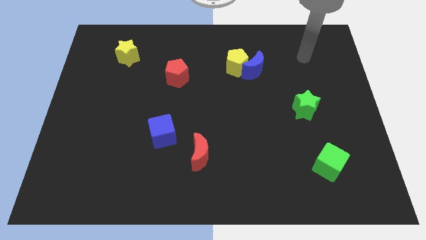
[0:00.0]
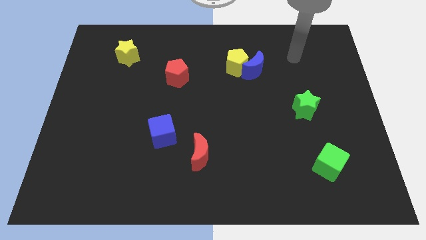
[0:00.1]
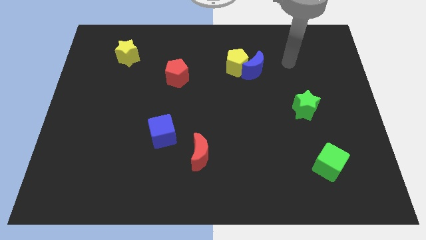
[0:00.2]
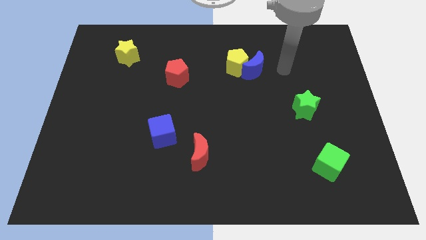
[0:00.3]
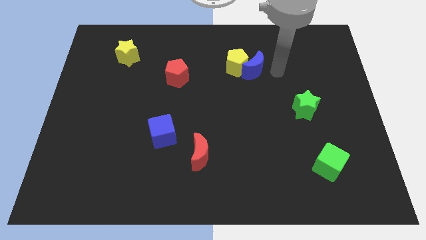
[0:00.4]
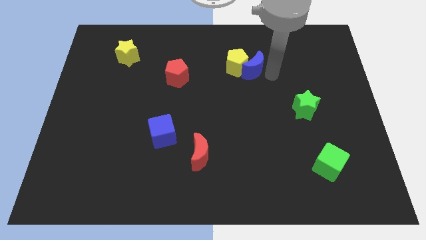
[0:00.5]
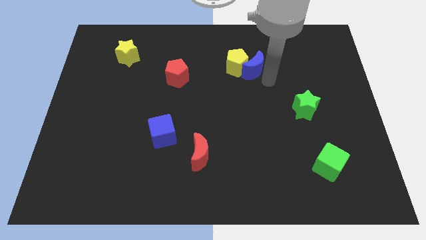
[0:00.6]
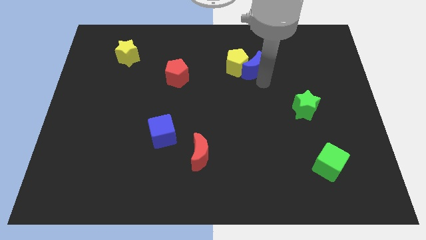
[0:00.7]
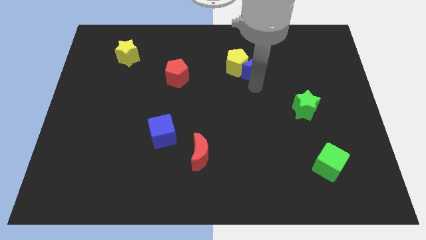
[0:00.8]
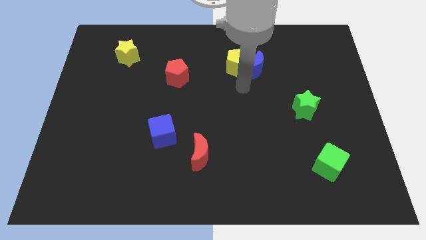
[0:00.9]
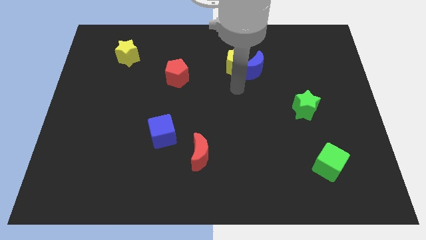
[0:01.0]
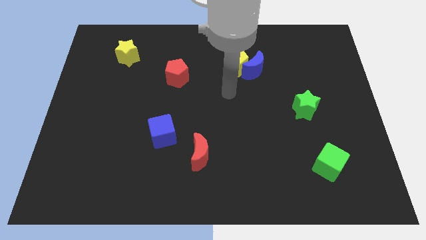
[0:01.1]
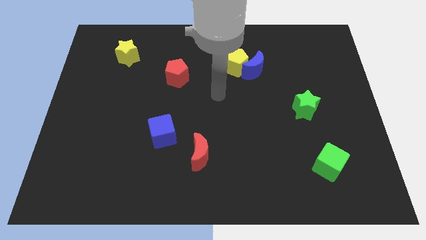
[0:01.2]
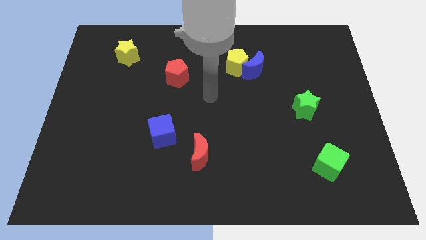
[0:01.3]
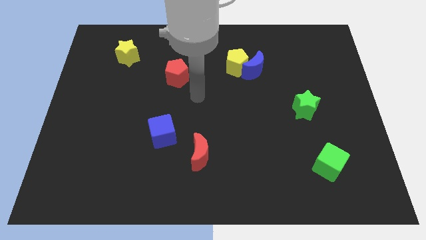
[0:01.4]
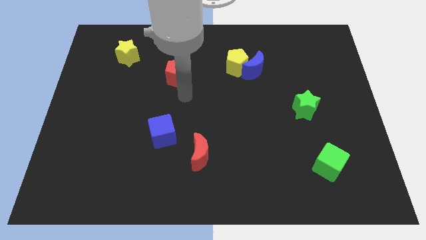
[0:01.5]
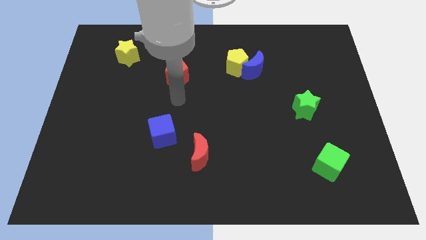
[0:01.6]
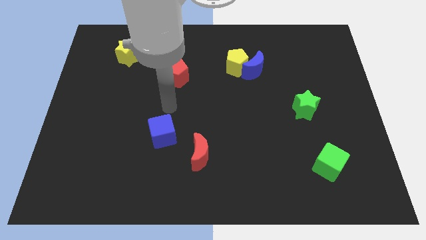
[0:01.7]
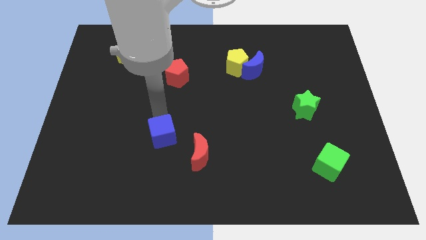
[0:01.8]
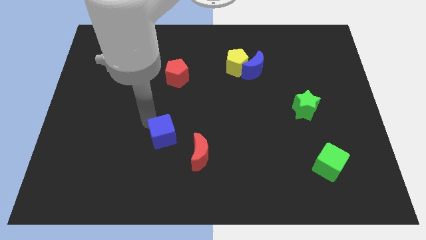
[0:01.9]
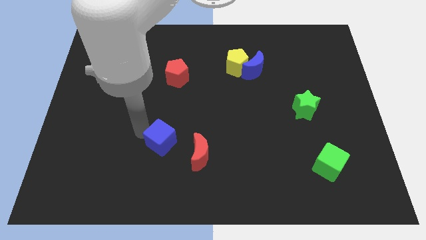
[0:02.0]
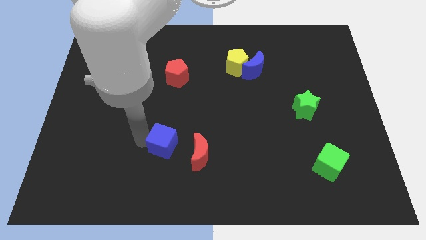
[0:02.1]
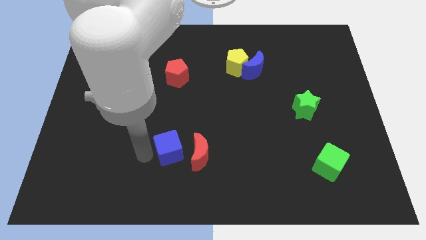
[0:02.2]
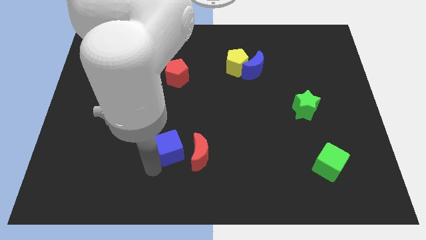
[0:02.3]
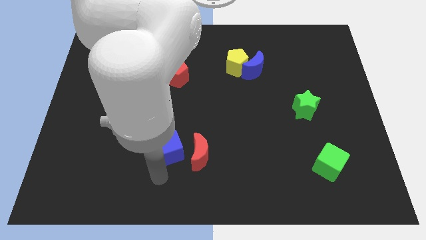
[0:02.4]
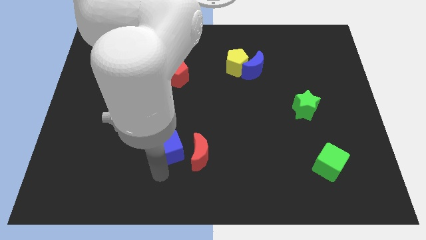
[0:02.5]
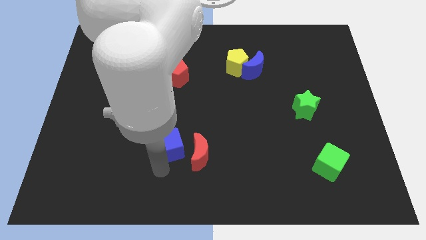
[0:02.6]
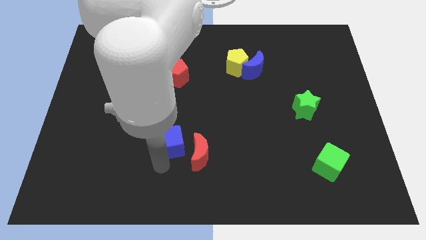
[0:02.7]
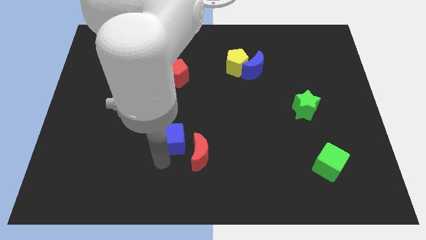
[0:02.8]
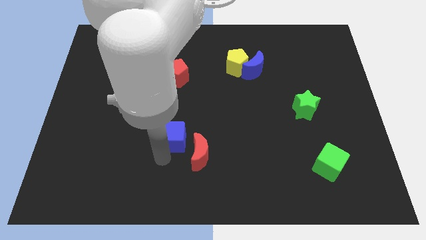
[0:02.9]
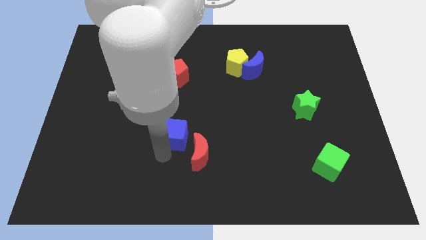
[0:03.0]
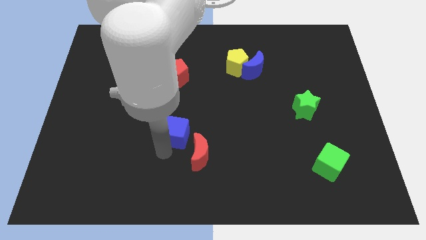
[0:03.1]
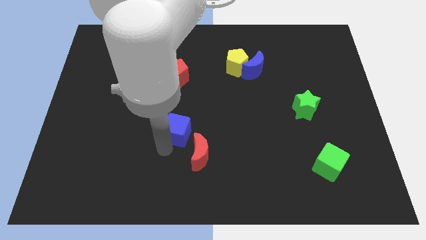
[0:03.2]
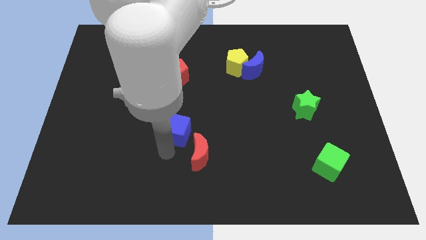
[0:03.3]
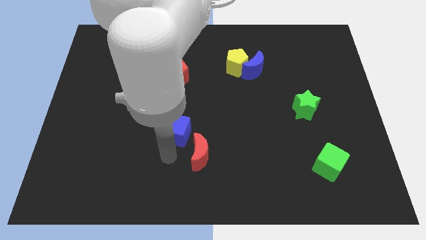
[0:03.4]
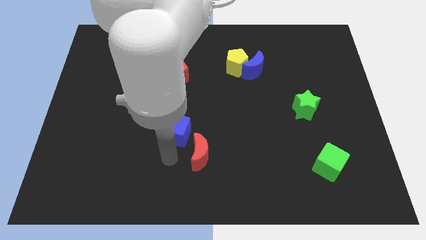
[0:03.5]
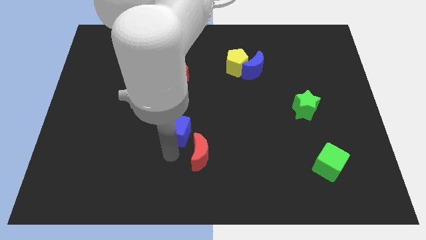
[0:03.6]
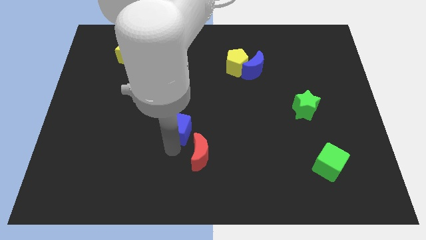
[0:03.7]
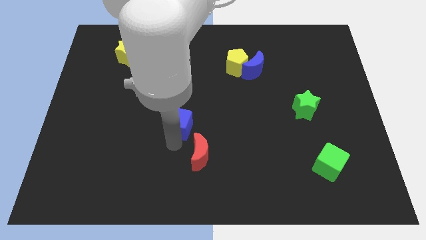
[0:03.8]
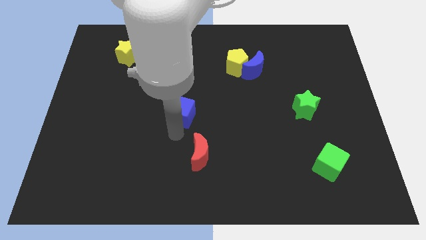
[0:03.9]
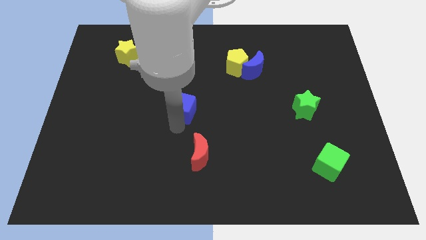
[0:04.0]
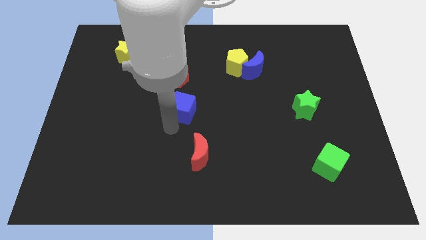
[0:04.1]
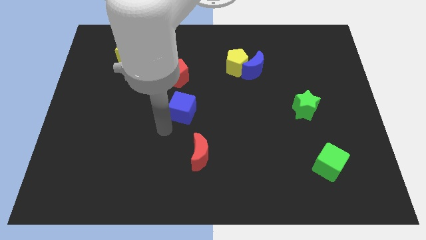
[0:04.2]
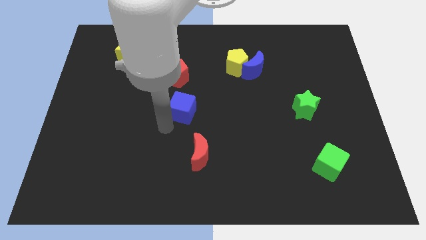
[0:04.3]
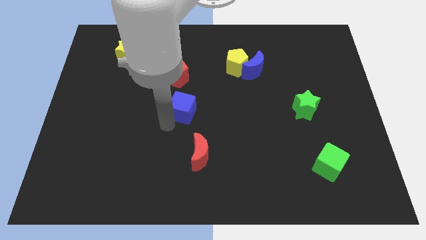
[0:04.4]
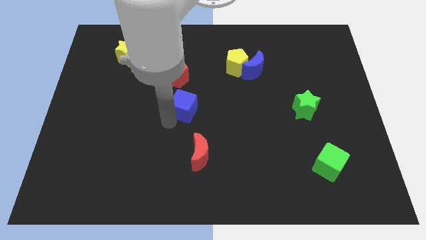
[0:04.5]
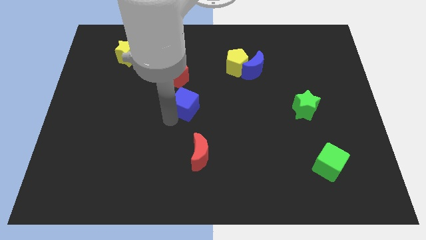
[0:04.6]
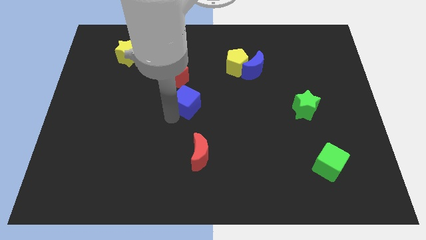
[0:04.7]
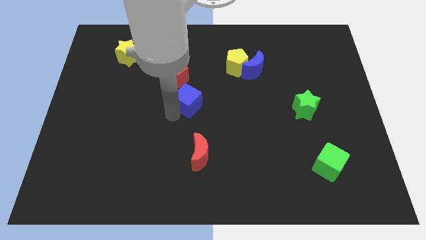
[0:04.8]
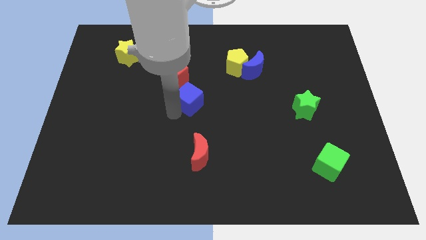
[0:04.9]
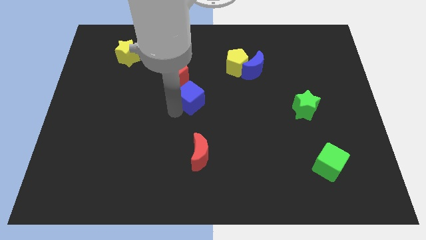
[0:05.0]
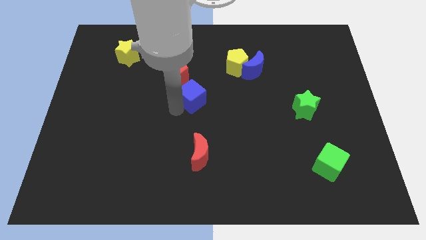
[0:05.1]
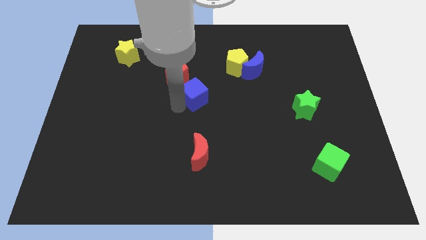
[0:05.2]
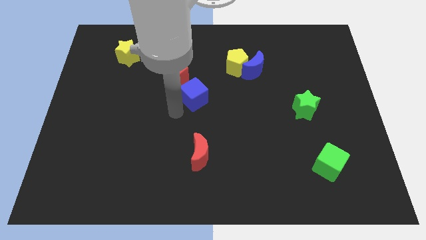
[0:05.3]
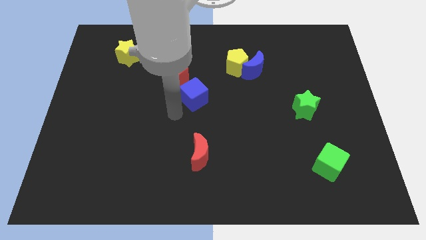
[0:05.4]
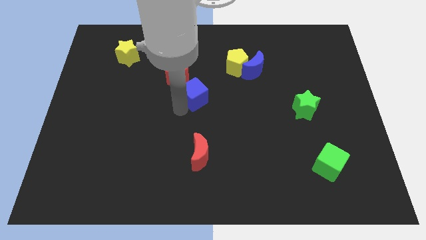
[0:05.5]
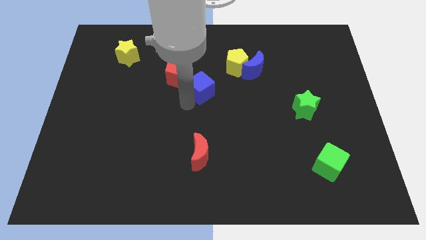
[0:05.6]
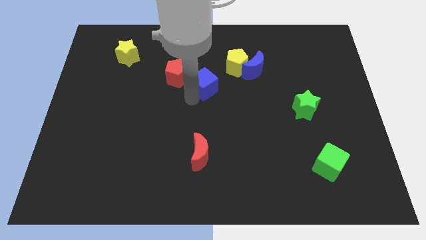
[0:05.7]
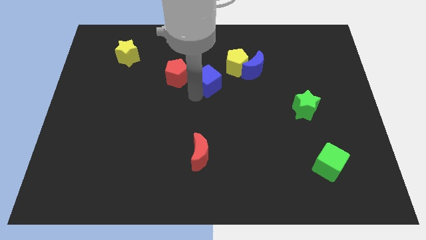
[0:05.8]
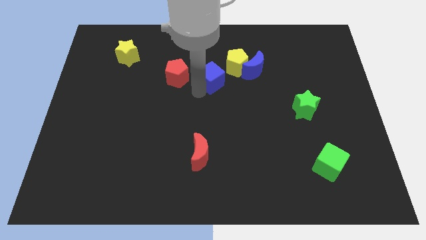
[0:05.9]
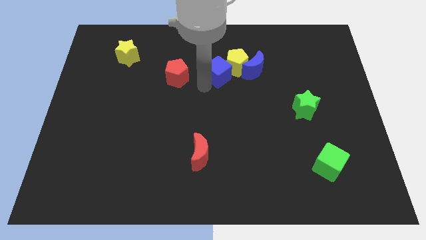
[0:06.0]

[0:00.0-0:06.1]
move the blue cube to the yellow pentagon

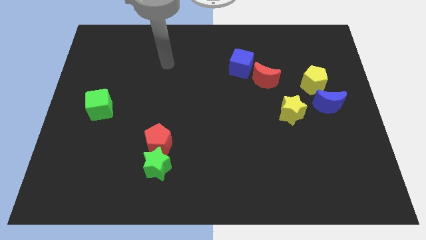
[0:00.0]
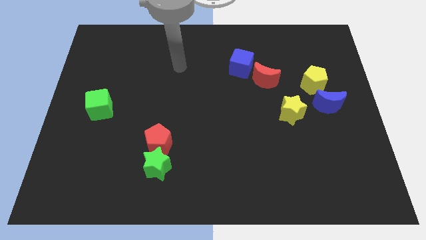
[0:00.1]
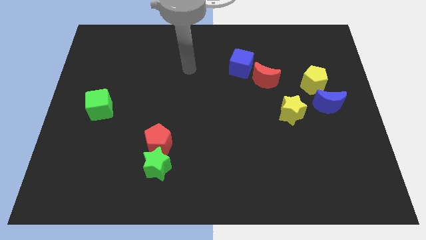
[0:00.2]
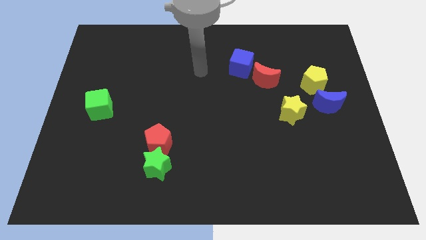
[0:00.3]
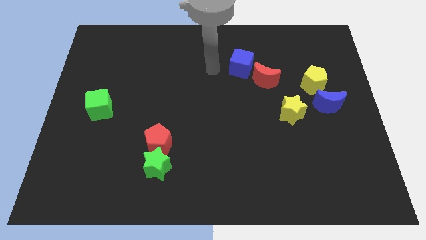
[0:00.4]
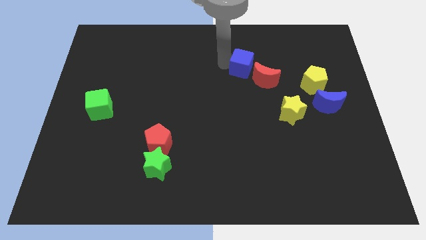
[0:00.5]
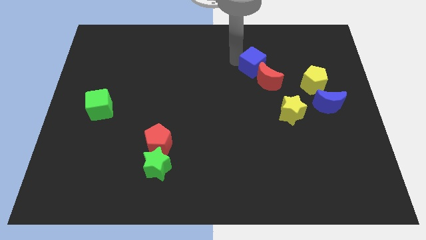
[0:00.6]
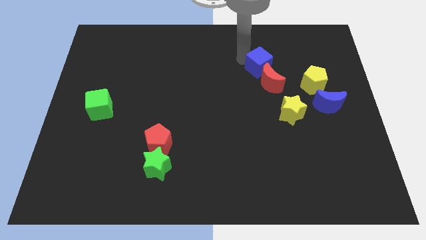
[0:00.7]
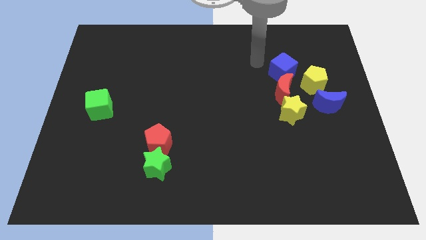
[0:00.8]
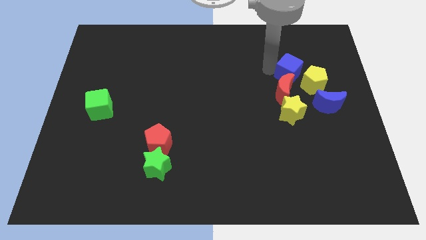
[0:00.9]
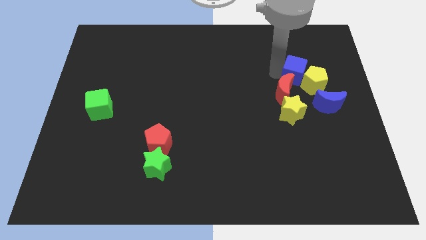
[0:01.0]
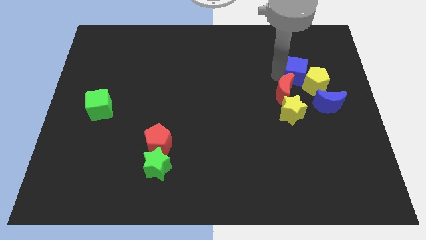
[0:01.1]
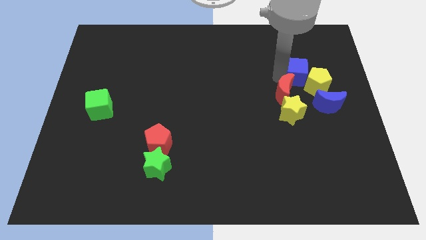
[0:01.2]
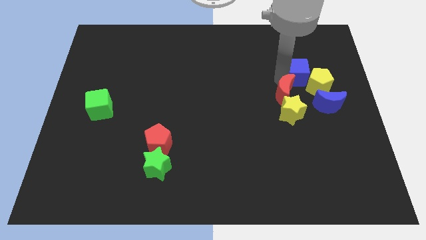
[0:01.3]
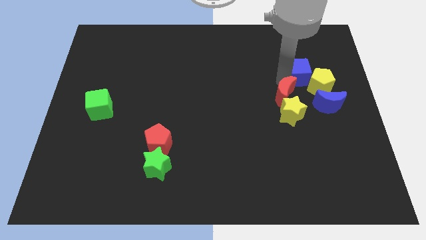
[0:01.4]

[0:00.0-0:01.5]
slide the red moon close to the yellow star
